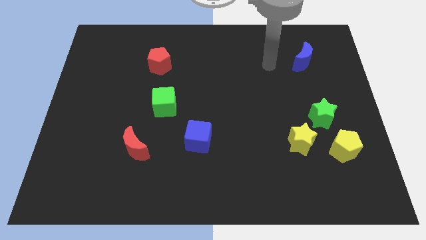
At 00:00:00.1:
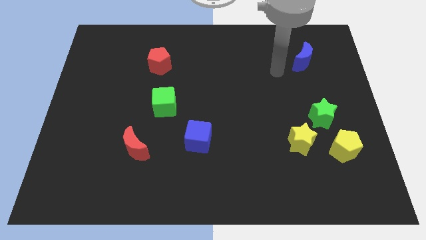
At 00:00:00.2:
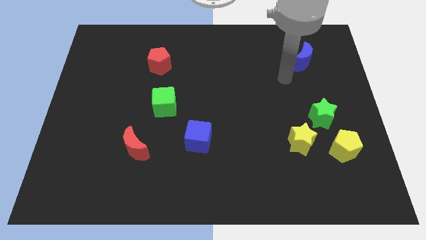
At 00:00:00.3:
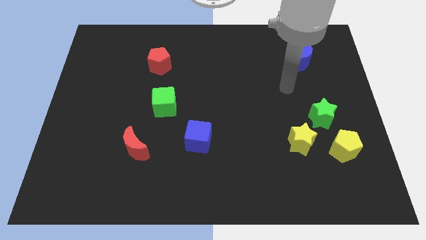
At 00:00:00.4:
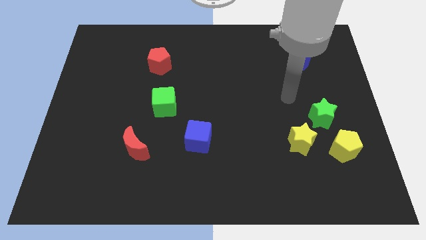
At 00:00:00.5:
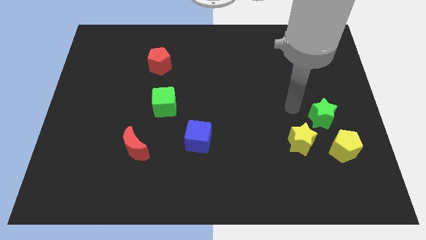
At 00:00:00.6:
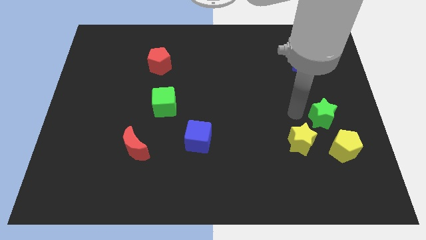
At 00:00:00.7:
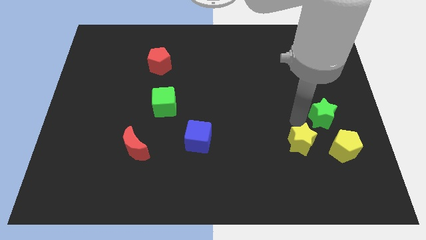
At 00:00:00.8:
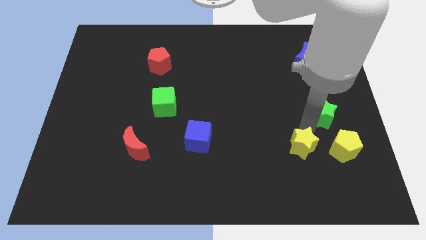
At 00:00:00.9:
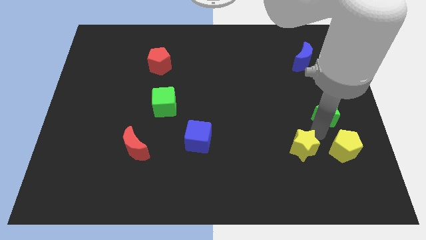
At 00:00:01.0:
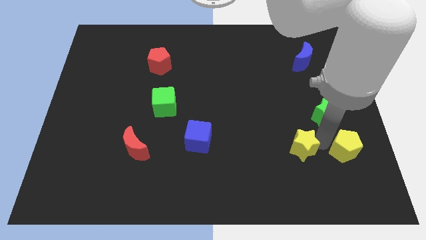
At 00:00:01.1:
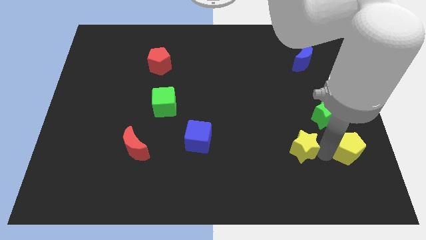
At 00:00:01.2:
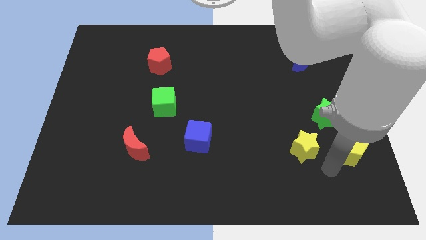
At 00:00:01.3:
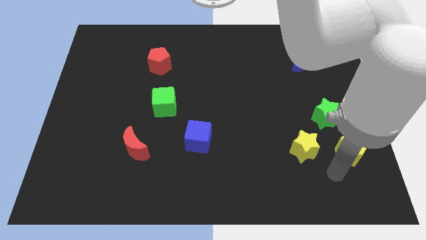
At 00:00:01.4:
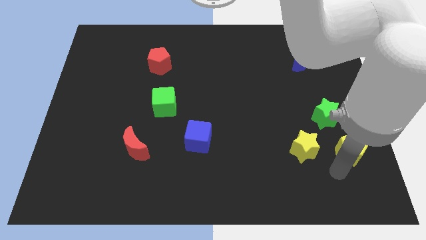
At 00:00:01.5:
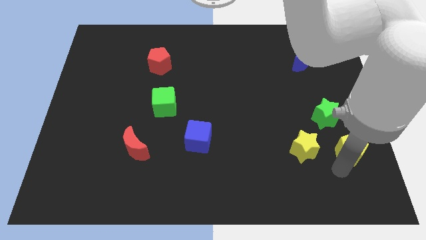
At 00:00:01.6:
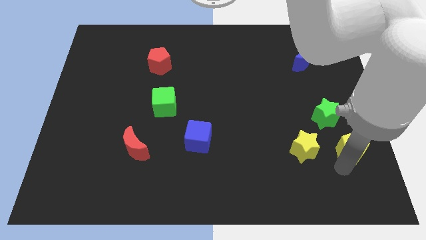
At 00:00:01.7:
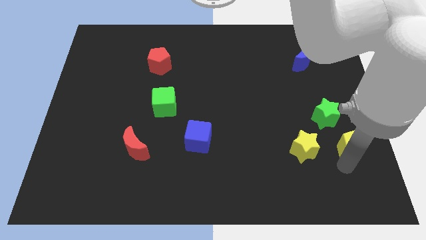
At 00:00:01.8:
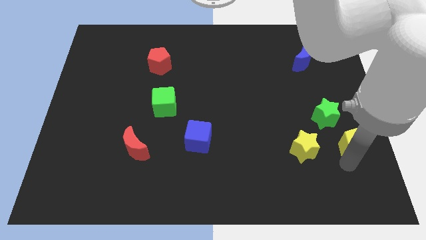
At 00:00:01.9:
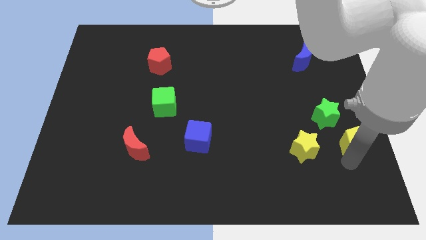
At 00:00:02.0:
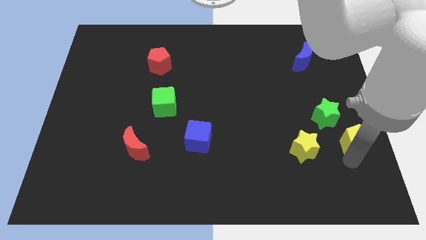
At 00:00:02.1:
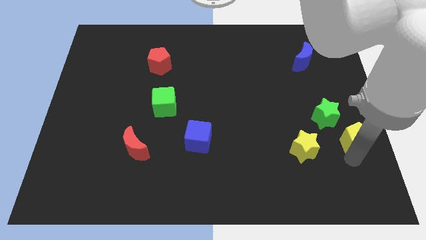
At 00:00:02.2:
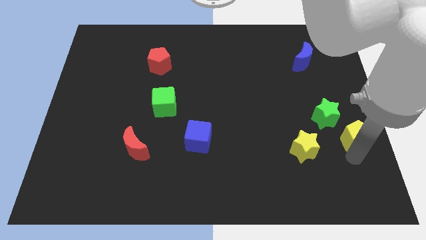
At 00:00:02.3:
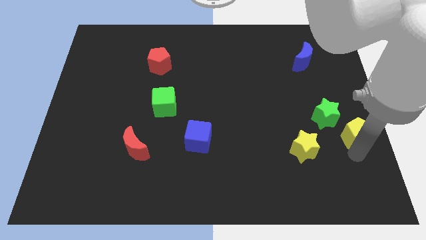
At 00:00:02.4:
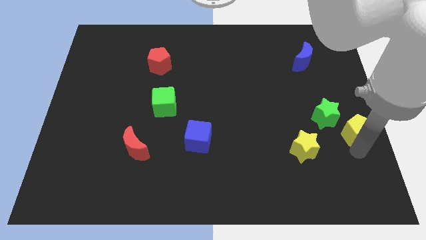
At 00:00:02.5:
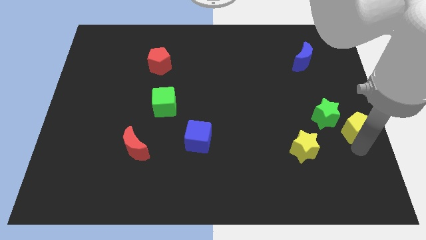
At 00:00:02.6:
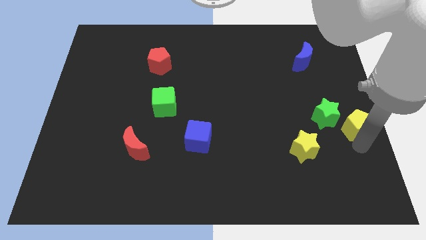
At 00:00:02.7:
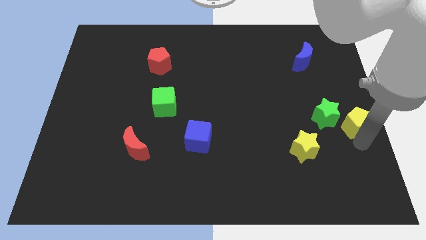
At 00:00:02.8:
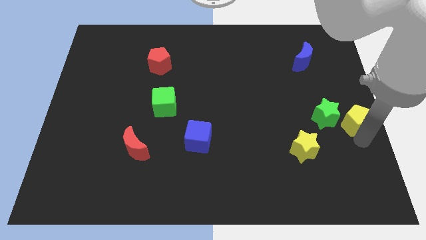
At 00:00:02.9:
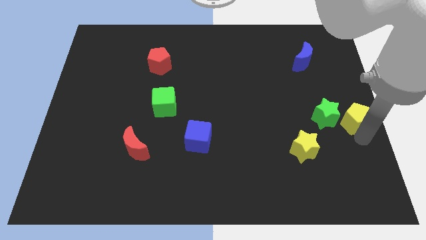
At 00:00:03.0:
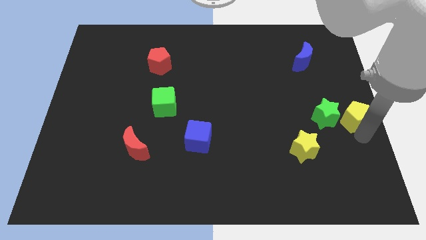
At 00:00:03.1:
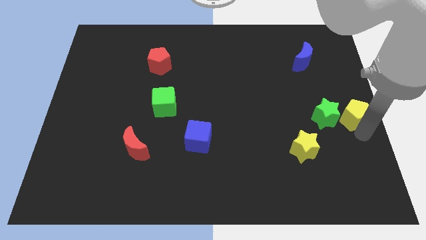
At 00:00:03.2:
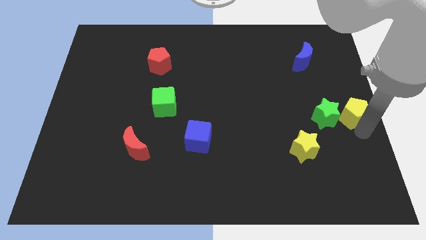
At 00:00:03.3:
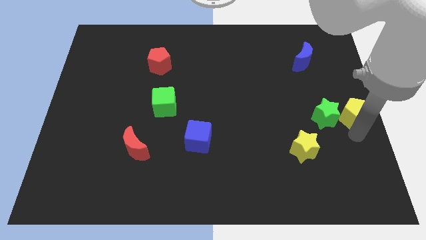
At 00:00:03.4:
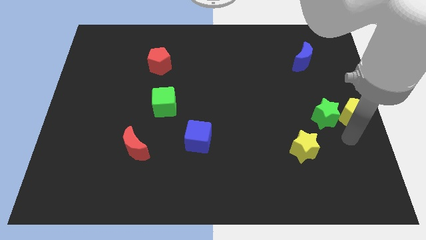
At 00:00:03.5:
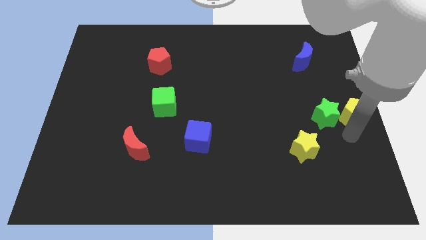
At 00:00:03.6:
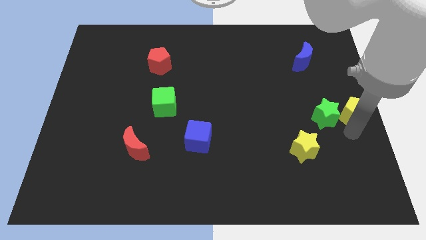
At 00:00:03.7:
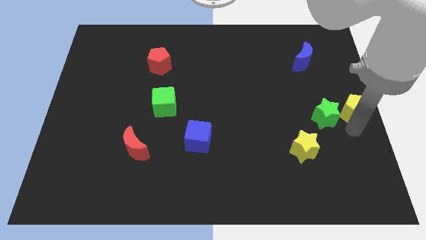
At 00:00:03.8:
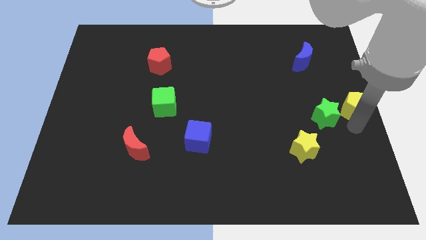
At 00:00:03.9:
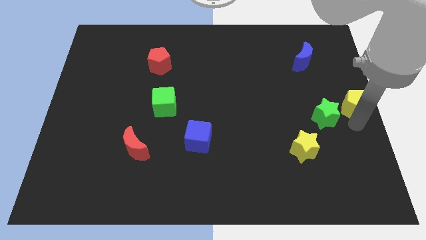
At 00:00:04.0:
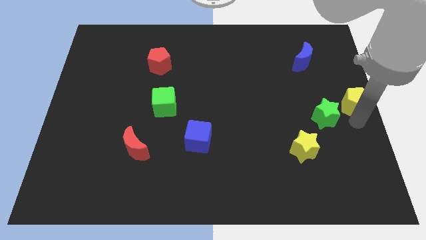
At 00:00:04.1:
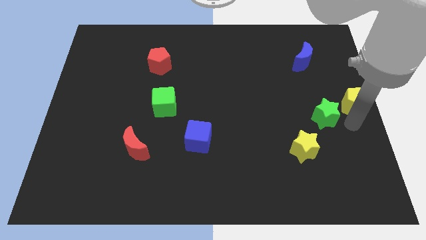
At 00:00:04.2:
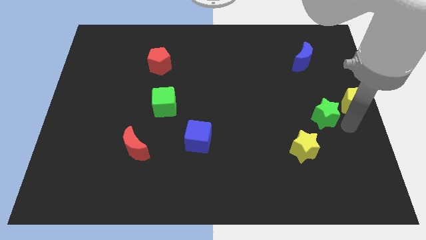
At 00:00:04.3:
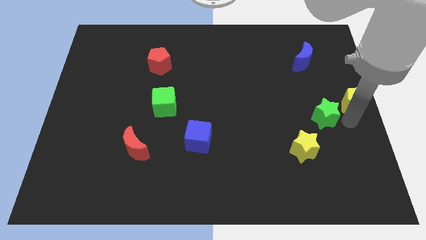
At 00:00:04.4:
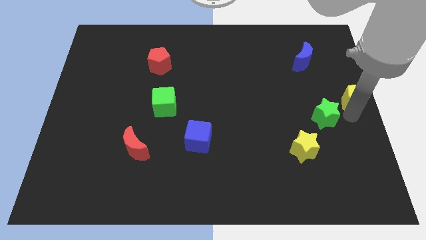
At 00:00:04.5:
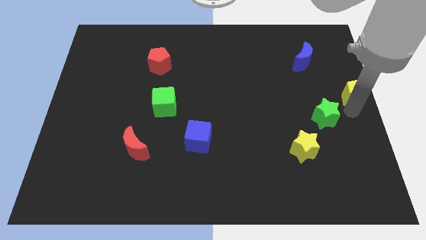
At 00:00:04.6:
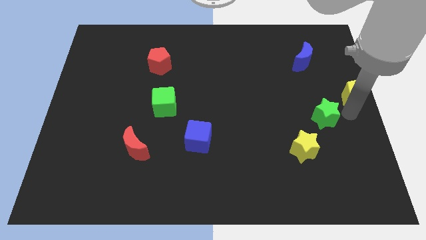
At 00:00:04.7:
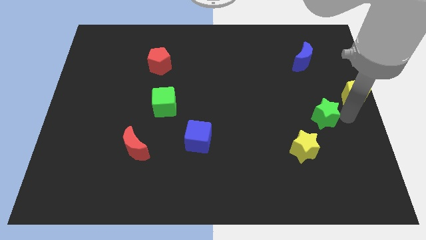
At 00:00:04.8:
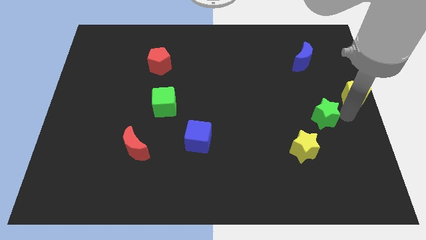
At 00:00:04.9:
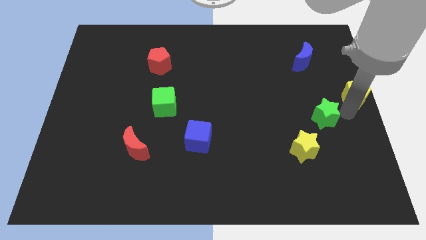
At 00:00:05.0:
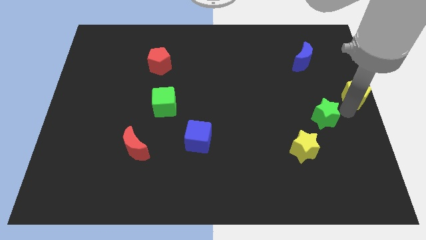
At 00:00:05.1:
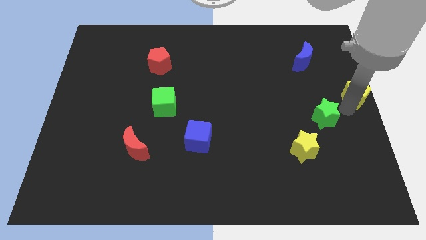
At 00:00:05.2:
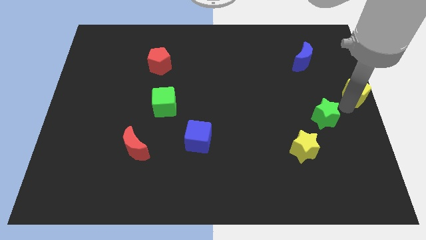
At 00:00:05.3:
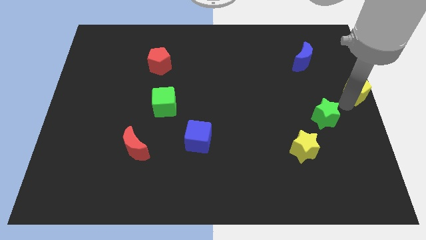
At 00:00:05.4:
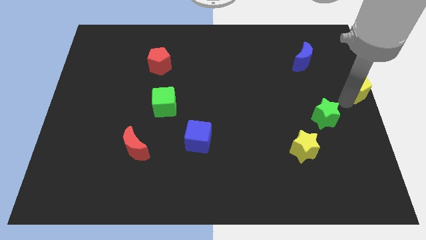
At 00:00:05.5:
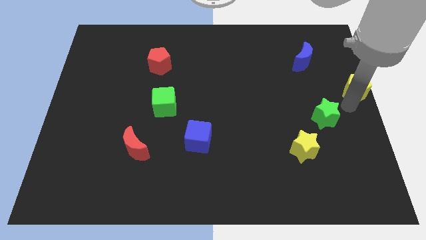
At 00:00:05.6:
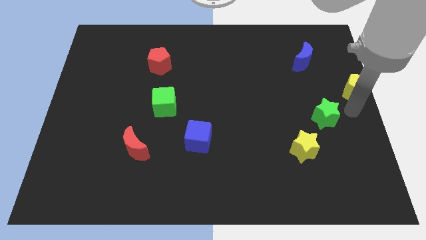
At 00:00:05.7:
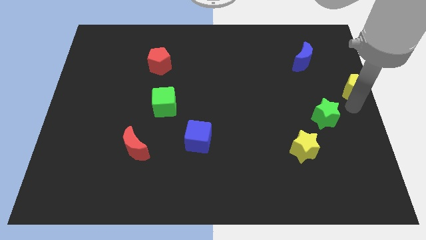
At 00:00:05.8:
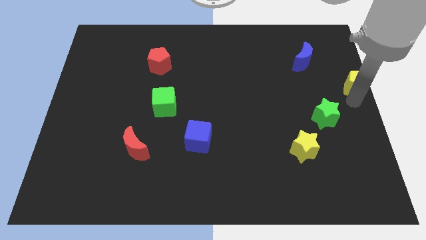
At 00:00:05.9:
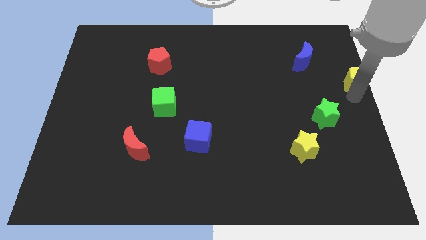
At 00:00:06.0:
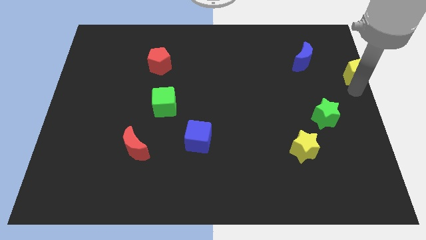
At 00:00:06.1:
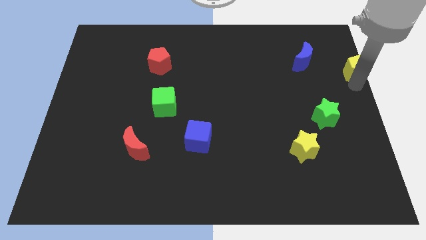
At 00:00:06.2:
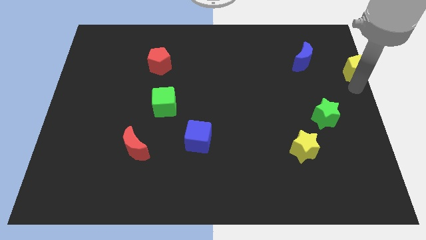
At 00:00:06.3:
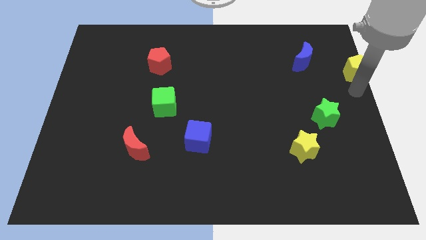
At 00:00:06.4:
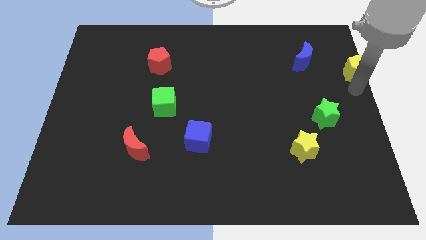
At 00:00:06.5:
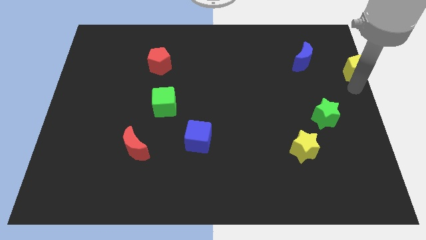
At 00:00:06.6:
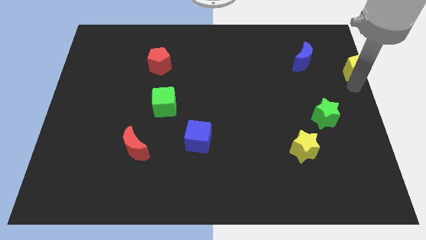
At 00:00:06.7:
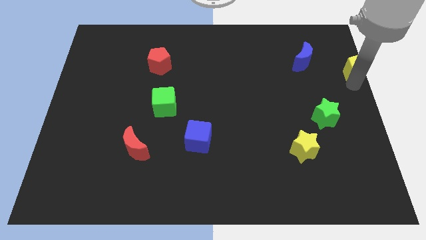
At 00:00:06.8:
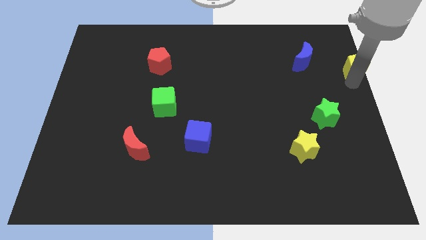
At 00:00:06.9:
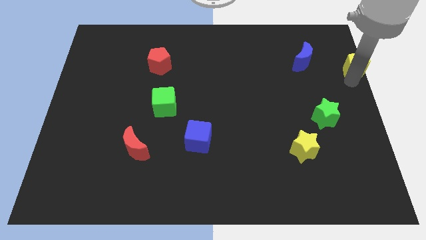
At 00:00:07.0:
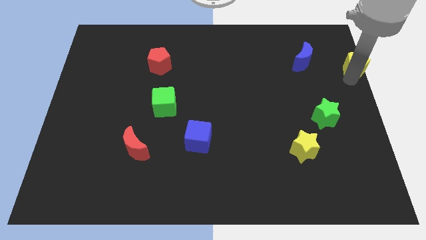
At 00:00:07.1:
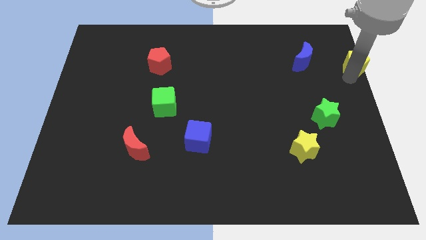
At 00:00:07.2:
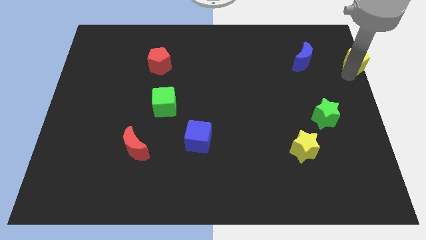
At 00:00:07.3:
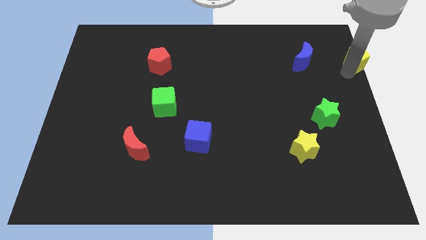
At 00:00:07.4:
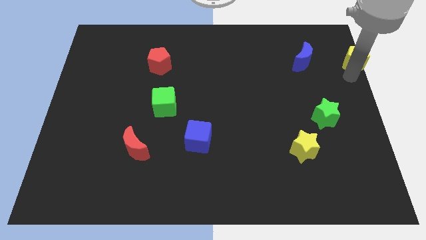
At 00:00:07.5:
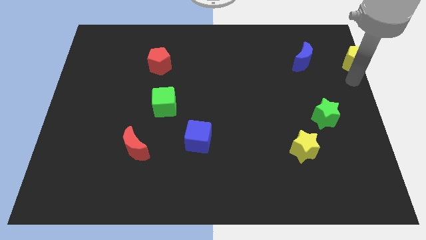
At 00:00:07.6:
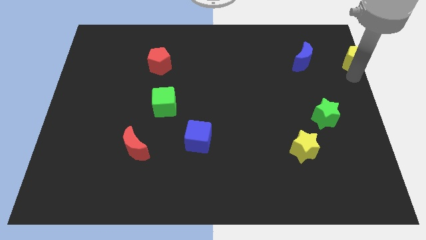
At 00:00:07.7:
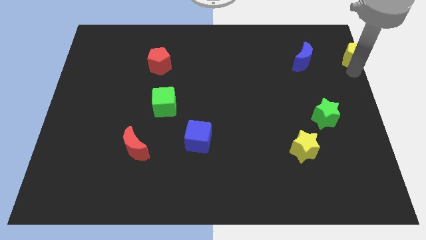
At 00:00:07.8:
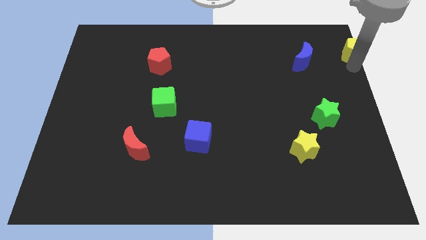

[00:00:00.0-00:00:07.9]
put the yellow pentagon to the upper right corner
